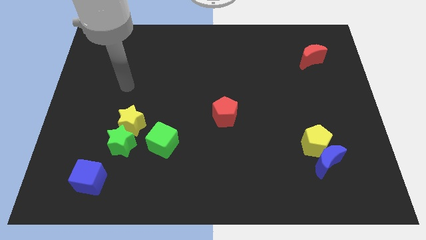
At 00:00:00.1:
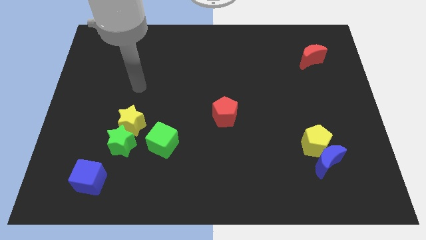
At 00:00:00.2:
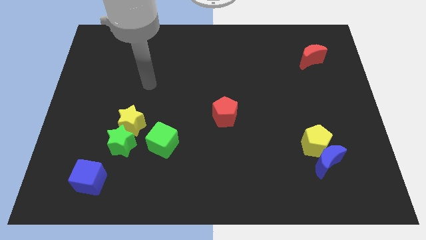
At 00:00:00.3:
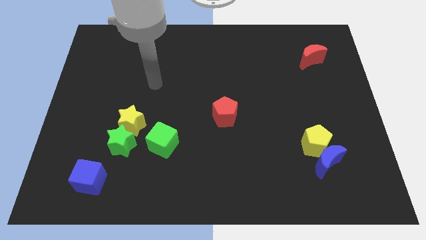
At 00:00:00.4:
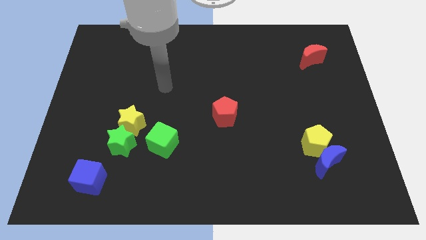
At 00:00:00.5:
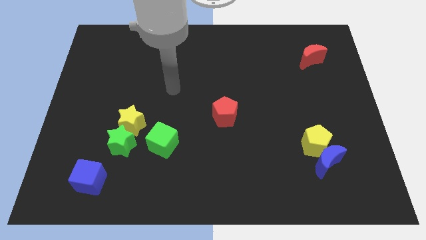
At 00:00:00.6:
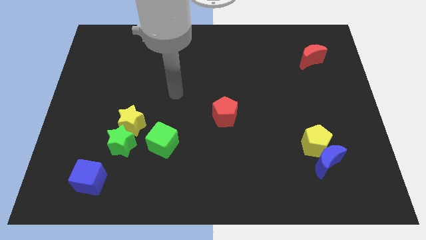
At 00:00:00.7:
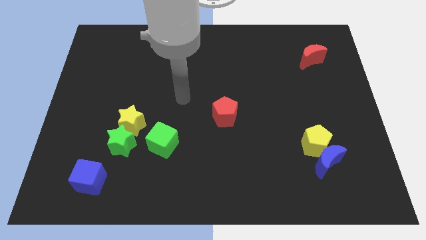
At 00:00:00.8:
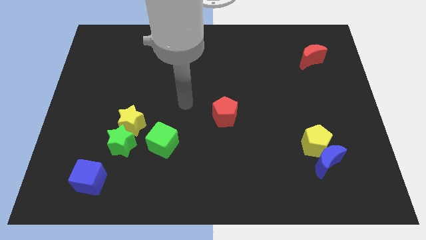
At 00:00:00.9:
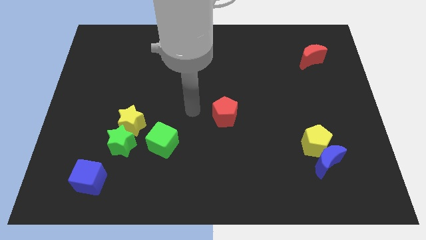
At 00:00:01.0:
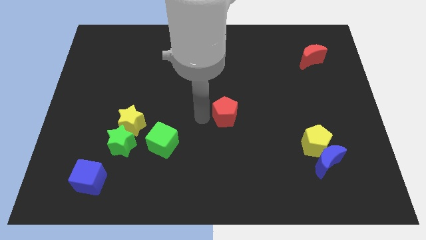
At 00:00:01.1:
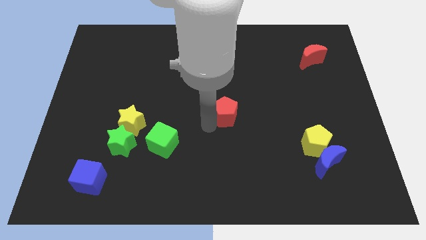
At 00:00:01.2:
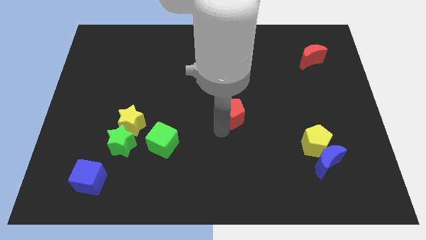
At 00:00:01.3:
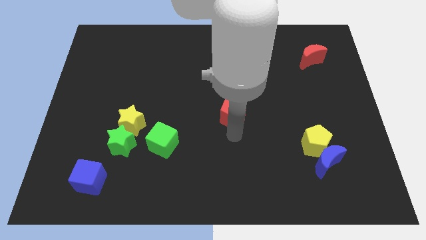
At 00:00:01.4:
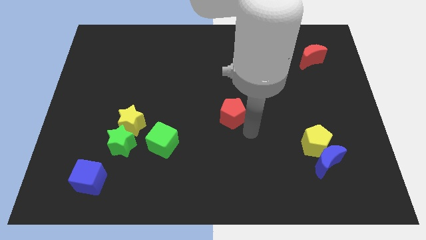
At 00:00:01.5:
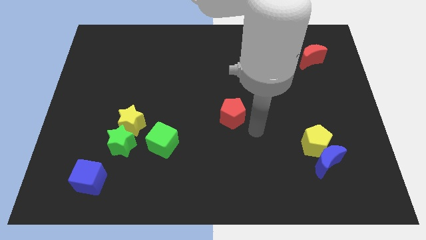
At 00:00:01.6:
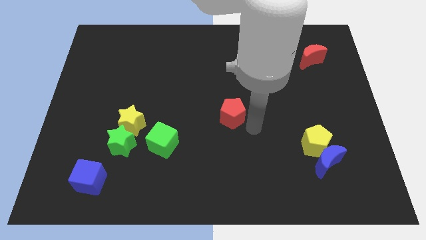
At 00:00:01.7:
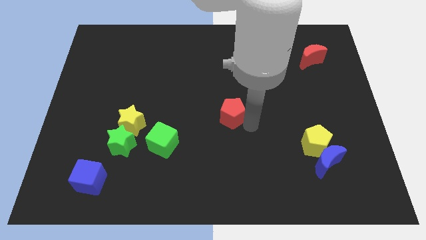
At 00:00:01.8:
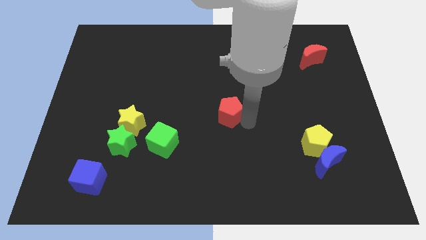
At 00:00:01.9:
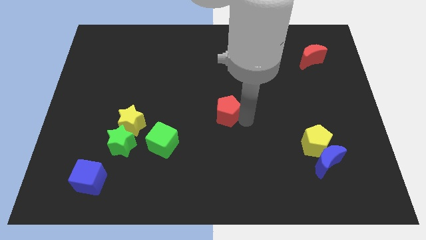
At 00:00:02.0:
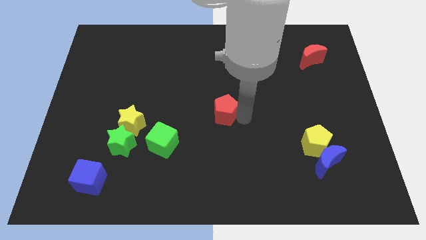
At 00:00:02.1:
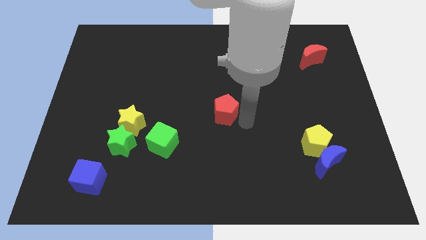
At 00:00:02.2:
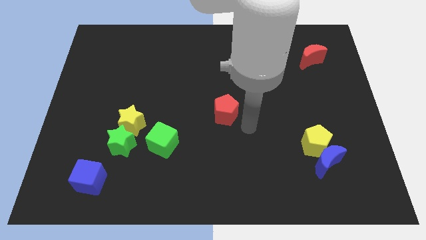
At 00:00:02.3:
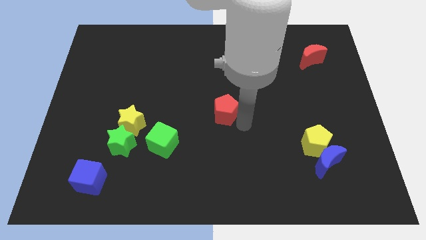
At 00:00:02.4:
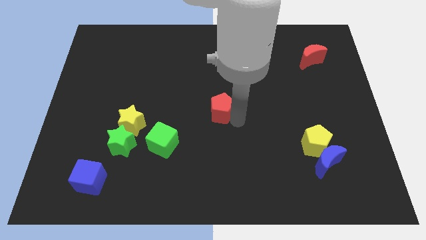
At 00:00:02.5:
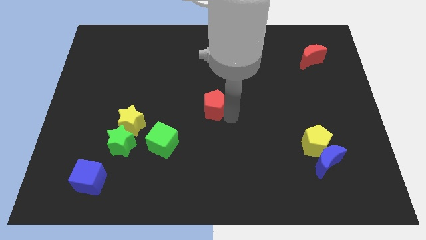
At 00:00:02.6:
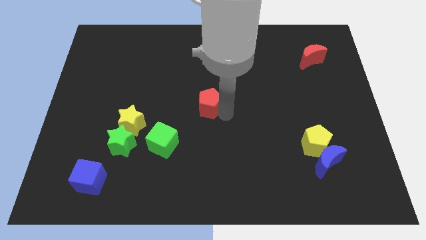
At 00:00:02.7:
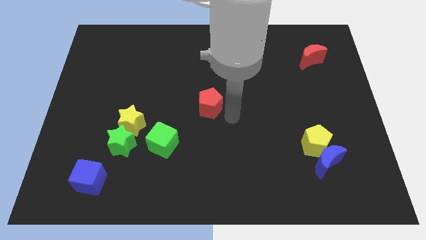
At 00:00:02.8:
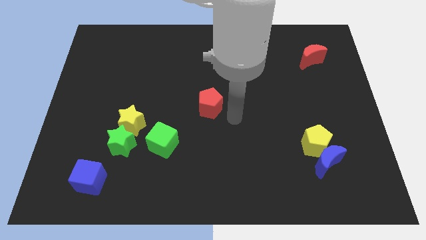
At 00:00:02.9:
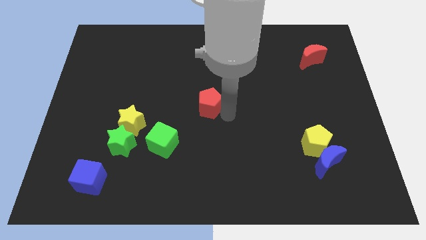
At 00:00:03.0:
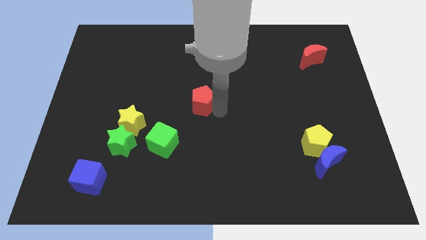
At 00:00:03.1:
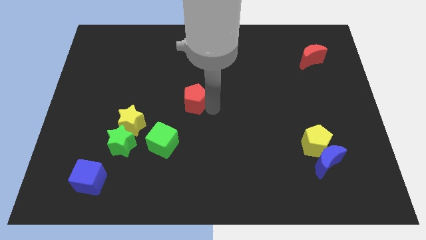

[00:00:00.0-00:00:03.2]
slightly slide the red pentagon diagonally upwards and to the left

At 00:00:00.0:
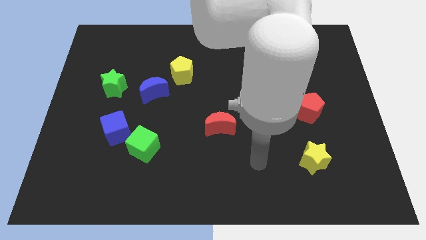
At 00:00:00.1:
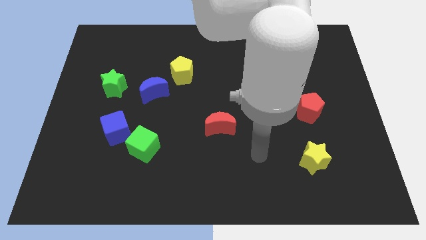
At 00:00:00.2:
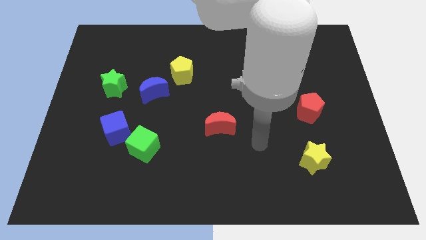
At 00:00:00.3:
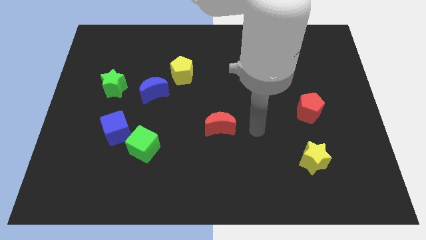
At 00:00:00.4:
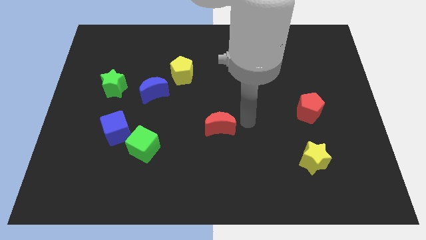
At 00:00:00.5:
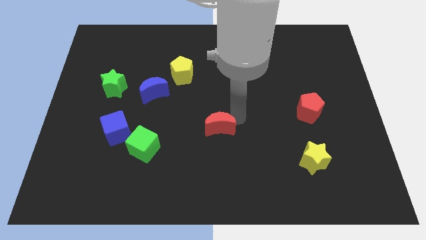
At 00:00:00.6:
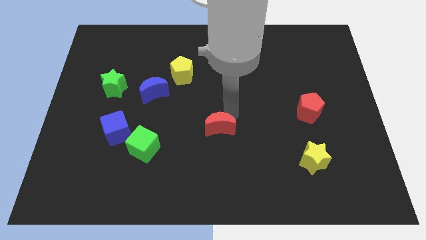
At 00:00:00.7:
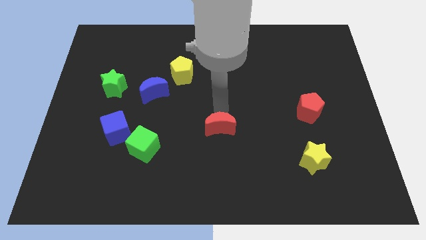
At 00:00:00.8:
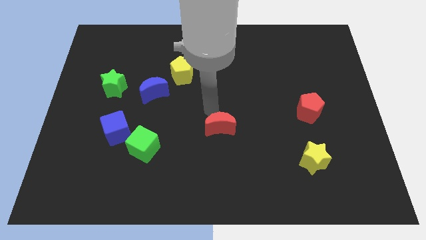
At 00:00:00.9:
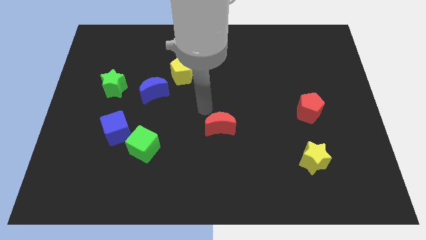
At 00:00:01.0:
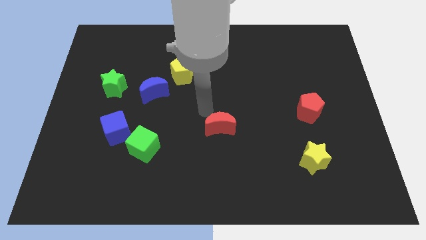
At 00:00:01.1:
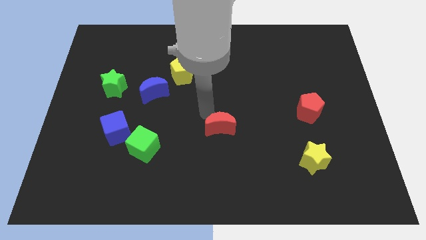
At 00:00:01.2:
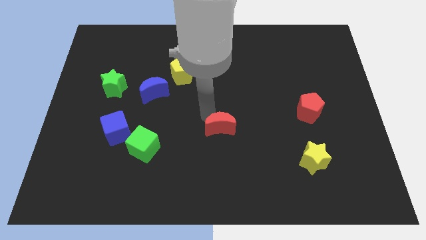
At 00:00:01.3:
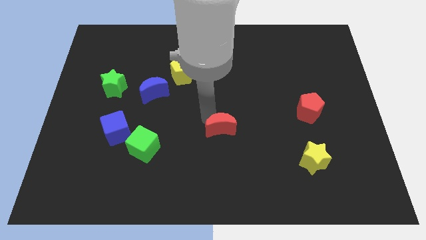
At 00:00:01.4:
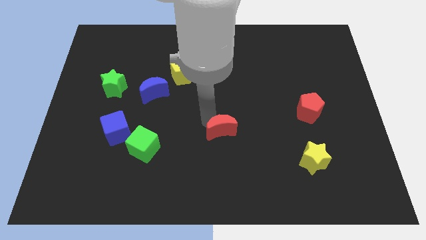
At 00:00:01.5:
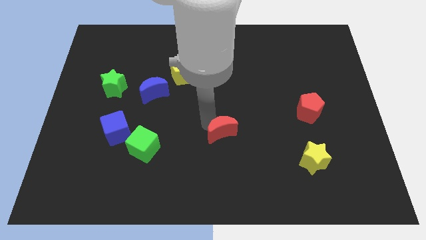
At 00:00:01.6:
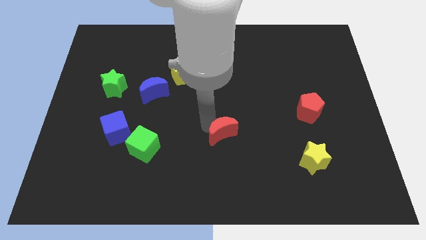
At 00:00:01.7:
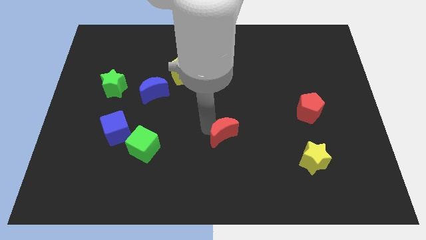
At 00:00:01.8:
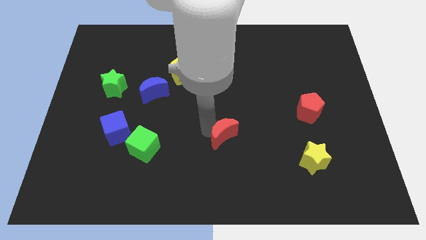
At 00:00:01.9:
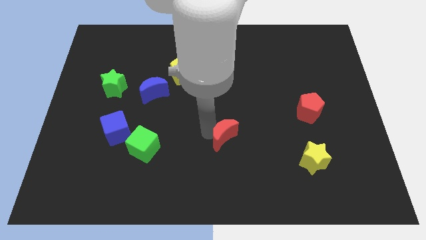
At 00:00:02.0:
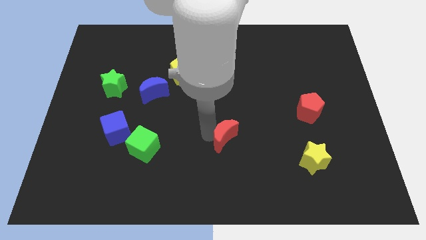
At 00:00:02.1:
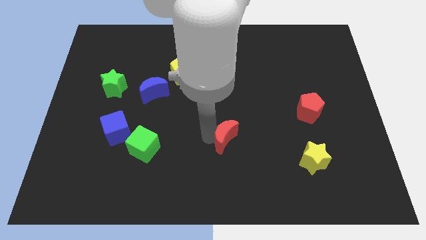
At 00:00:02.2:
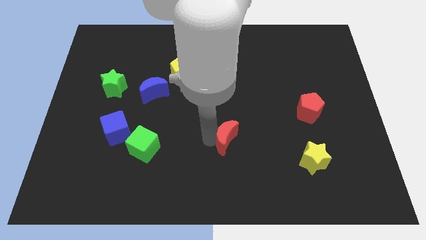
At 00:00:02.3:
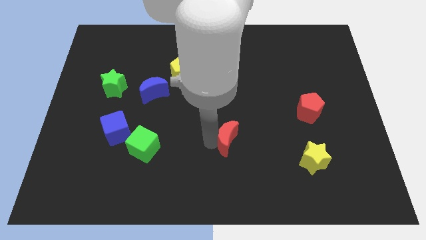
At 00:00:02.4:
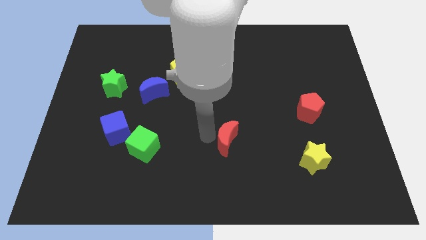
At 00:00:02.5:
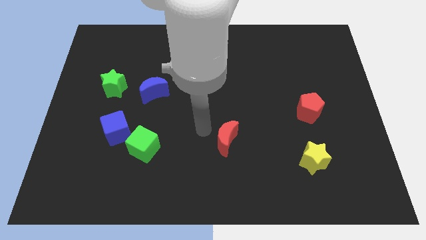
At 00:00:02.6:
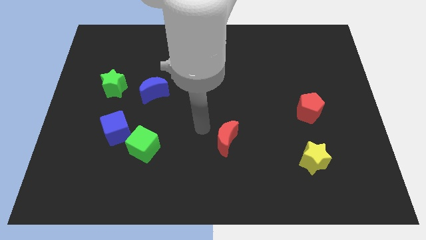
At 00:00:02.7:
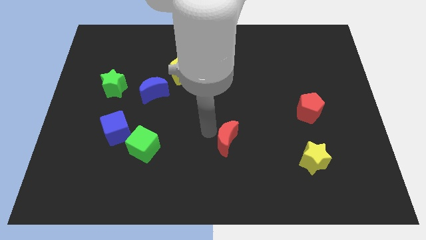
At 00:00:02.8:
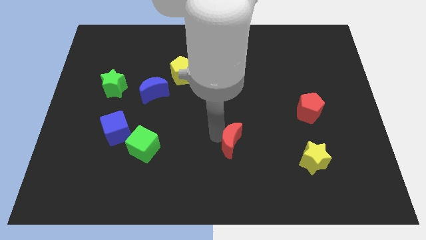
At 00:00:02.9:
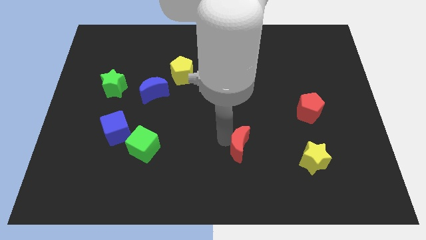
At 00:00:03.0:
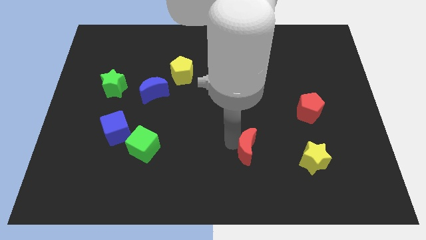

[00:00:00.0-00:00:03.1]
move the red moon a little down and to the right diagonally

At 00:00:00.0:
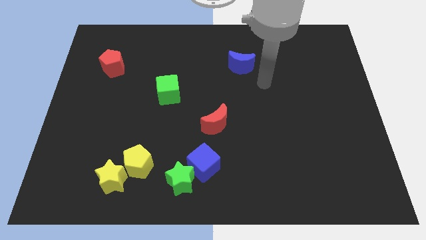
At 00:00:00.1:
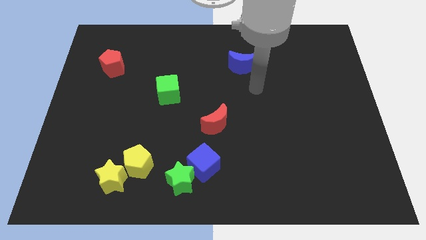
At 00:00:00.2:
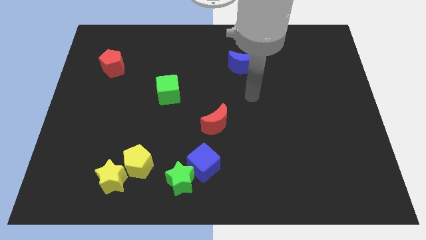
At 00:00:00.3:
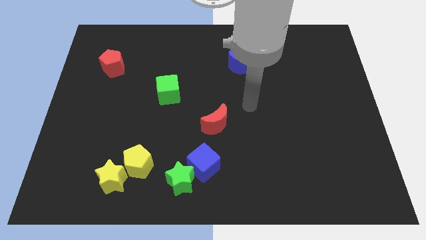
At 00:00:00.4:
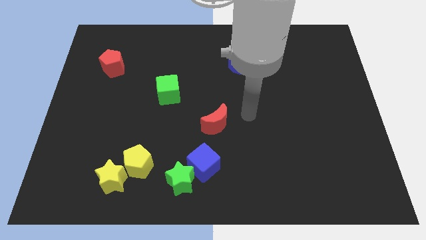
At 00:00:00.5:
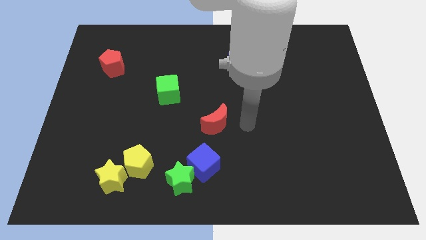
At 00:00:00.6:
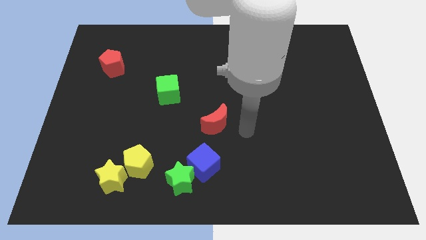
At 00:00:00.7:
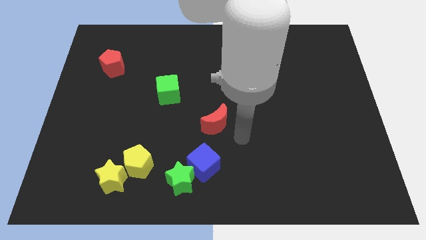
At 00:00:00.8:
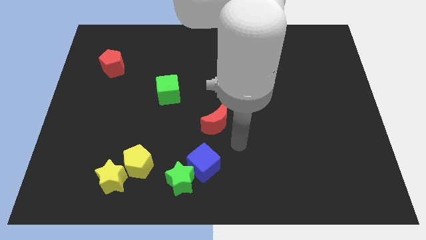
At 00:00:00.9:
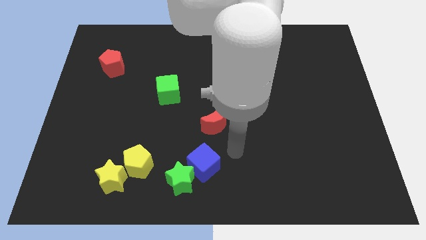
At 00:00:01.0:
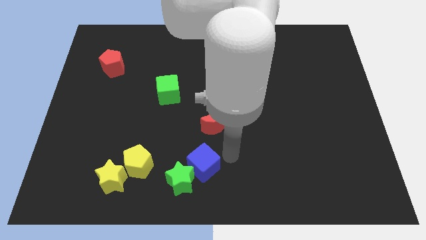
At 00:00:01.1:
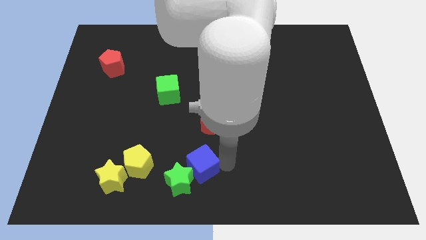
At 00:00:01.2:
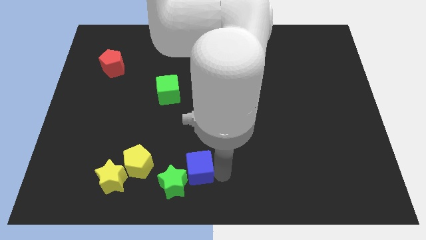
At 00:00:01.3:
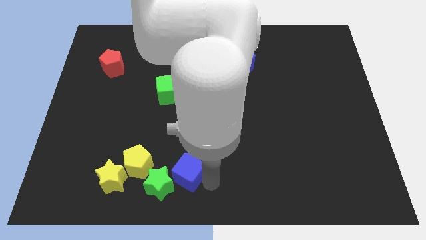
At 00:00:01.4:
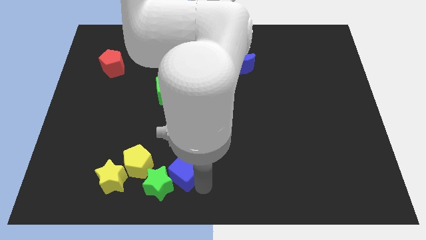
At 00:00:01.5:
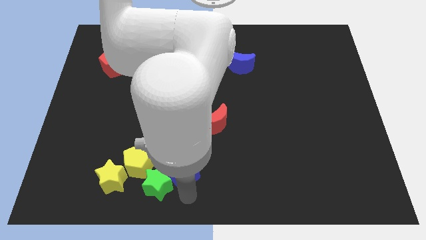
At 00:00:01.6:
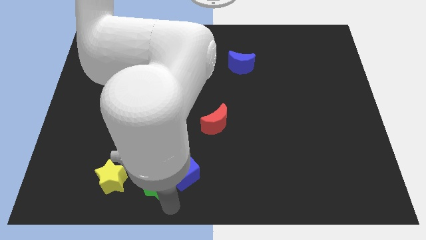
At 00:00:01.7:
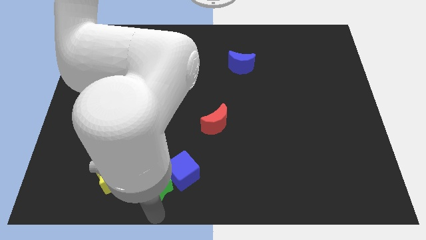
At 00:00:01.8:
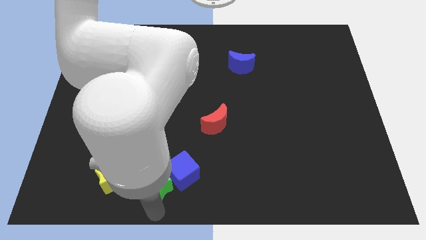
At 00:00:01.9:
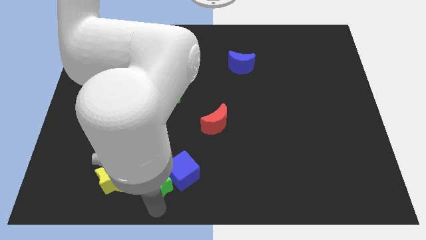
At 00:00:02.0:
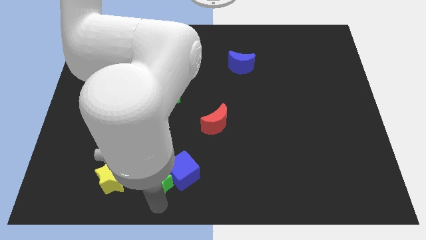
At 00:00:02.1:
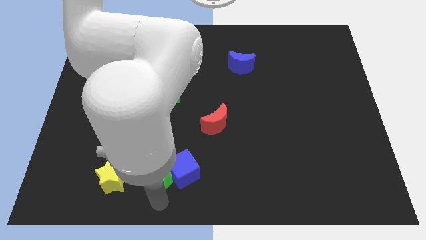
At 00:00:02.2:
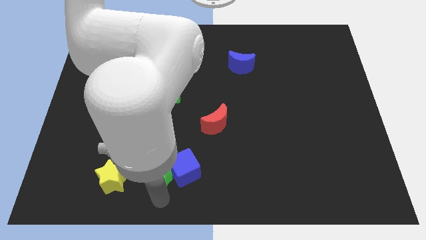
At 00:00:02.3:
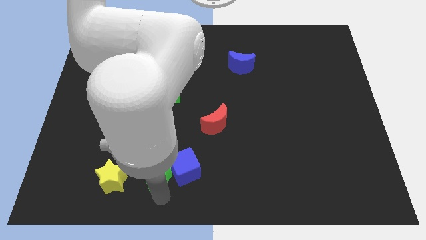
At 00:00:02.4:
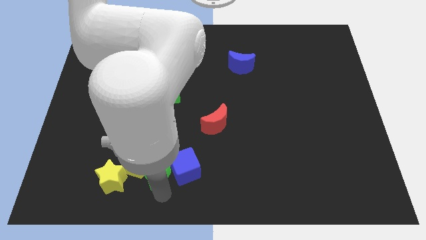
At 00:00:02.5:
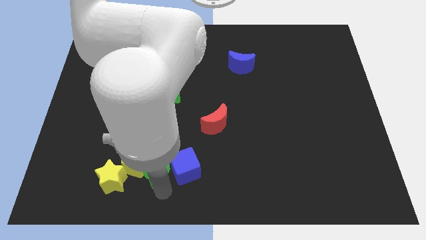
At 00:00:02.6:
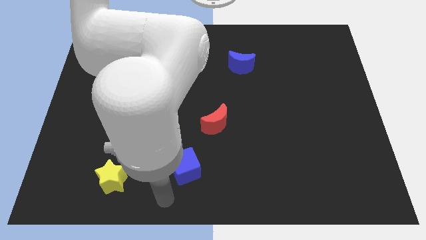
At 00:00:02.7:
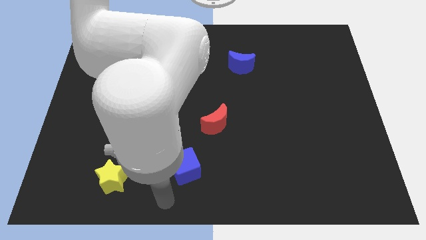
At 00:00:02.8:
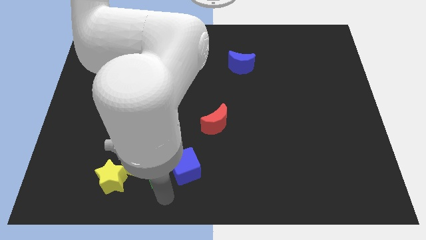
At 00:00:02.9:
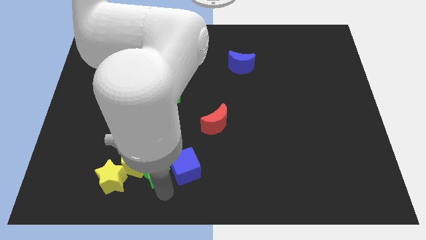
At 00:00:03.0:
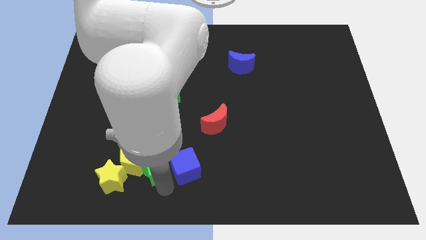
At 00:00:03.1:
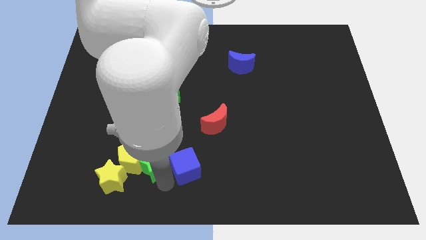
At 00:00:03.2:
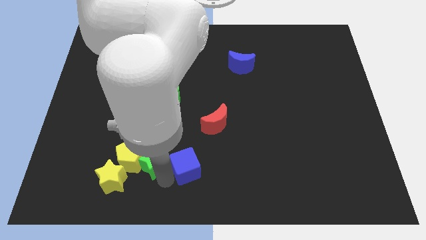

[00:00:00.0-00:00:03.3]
slide the green star up and to the left diagonally a little
